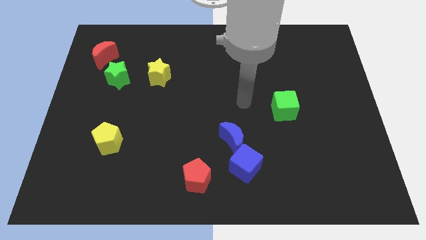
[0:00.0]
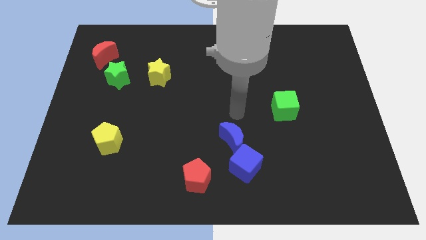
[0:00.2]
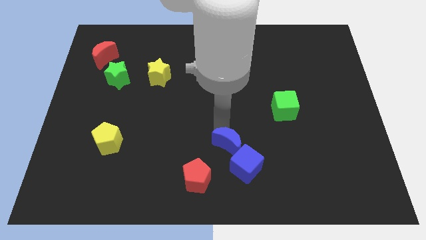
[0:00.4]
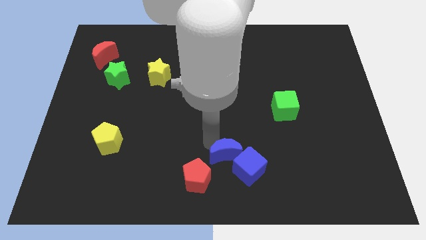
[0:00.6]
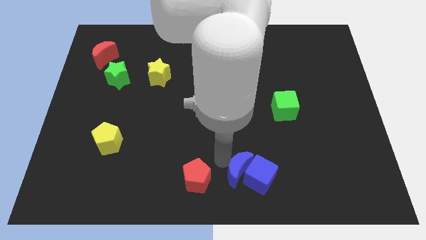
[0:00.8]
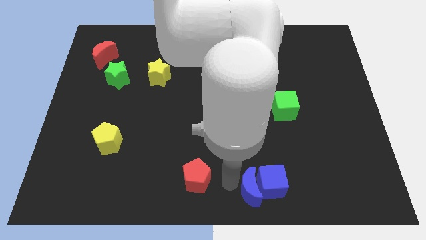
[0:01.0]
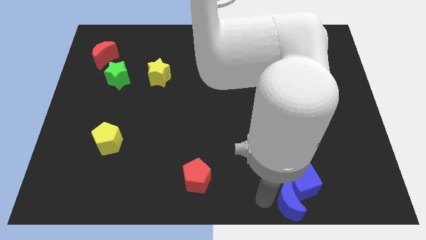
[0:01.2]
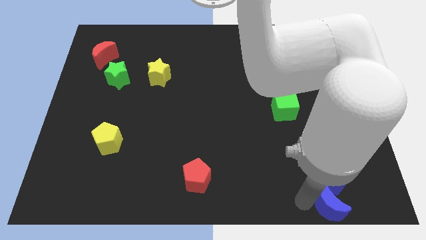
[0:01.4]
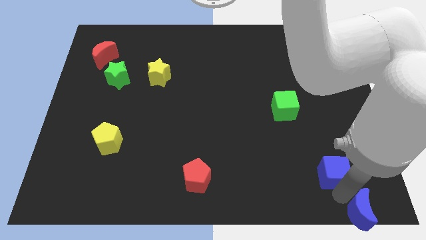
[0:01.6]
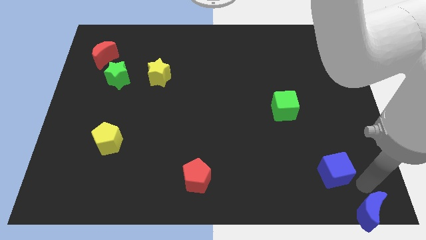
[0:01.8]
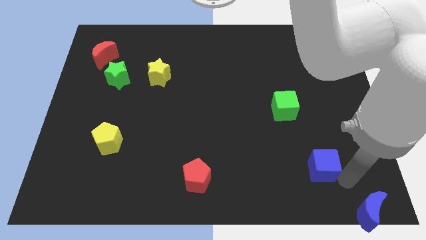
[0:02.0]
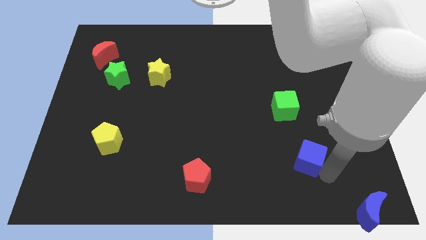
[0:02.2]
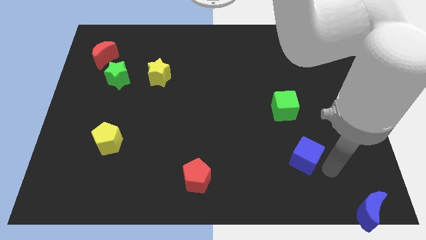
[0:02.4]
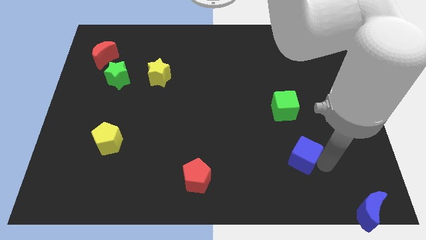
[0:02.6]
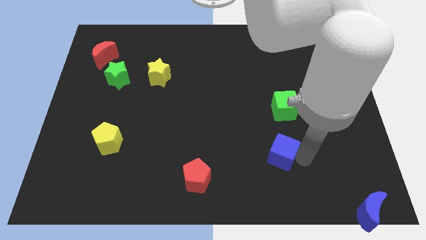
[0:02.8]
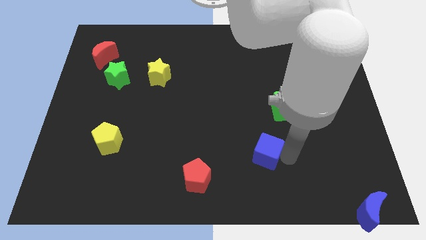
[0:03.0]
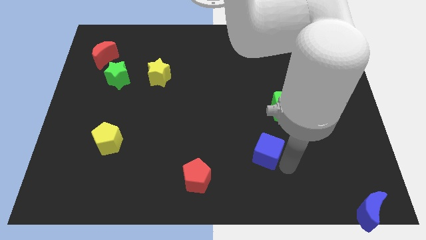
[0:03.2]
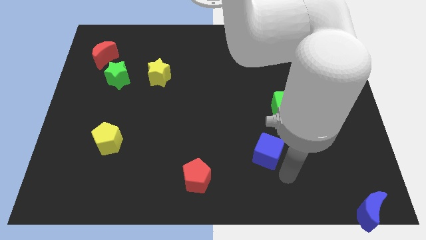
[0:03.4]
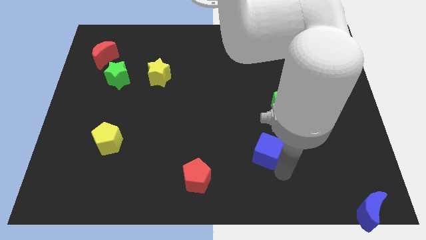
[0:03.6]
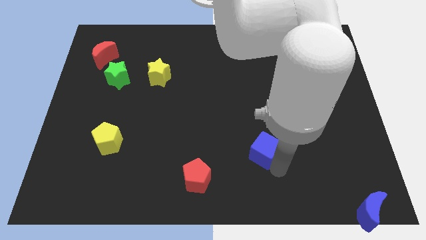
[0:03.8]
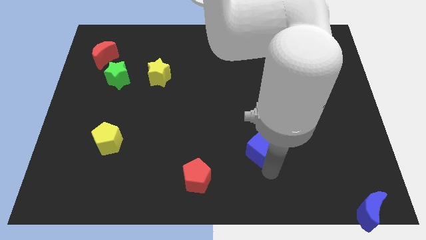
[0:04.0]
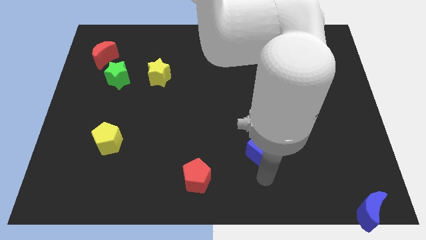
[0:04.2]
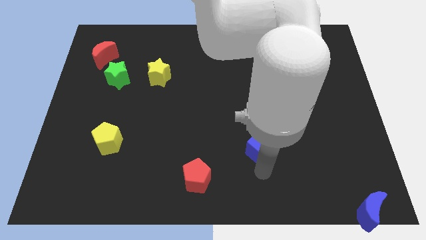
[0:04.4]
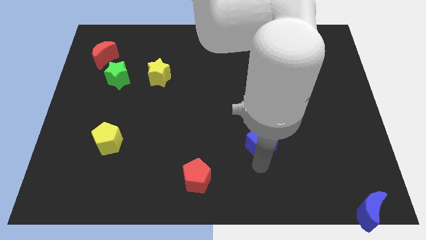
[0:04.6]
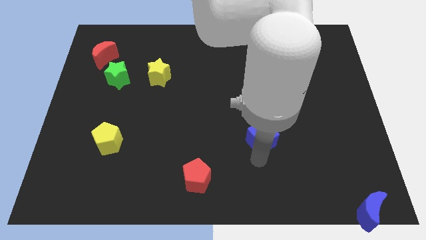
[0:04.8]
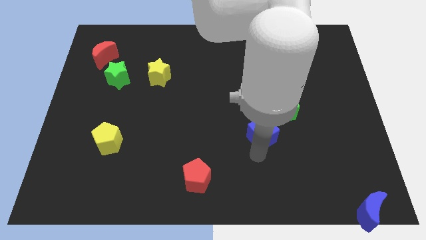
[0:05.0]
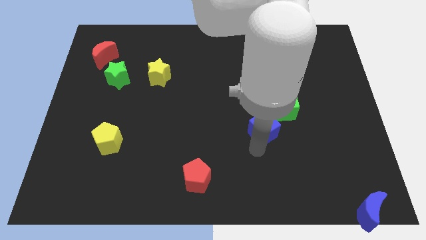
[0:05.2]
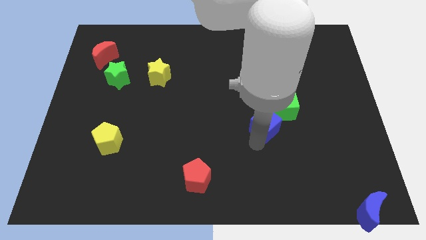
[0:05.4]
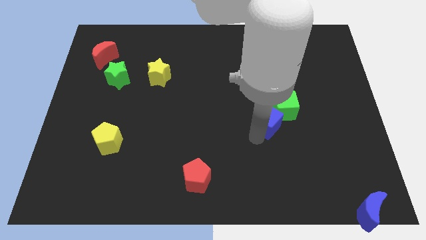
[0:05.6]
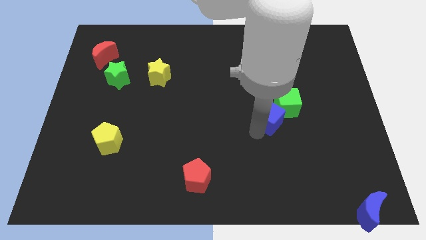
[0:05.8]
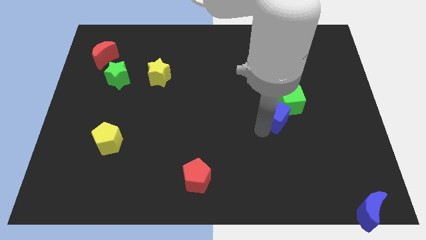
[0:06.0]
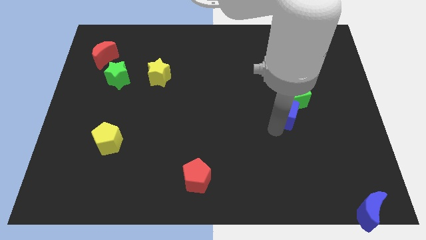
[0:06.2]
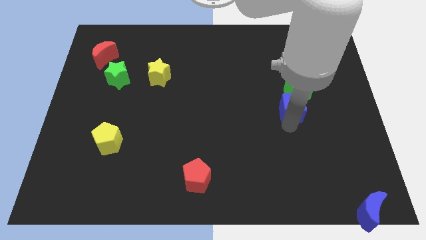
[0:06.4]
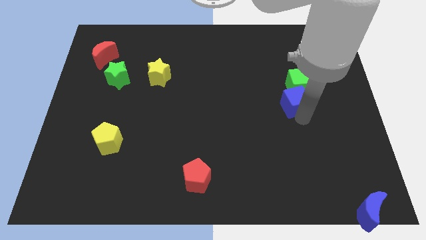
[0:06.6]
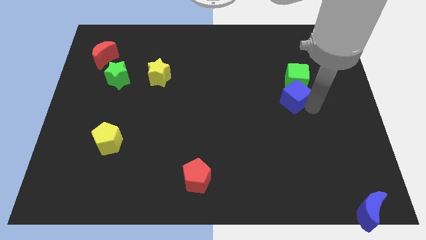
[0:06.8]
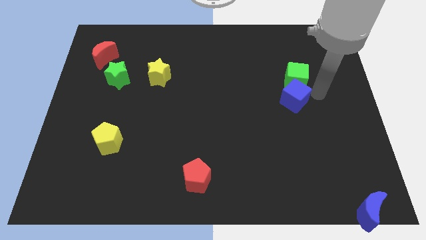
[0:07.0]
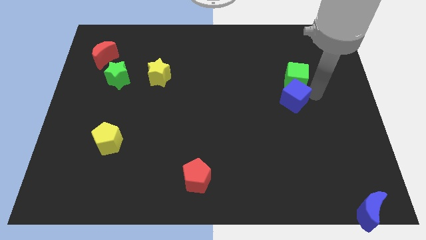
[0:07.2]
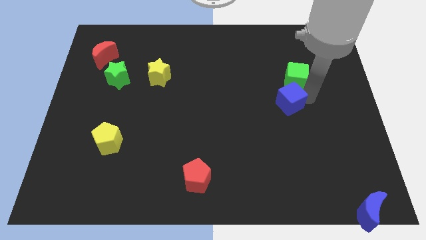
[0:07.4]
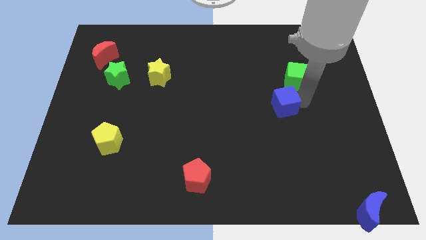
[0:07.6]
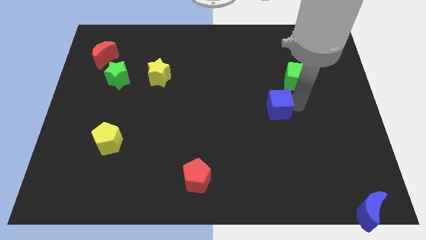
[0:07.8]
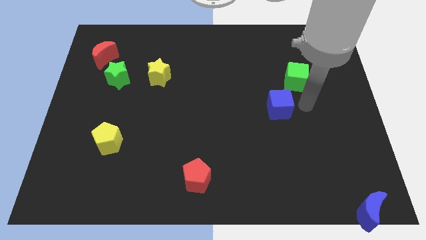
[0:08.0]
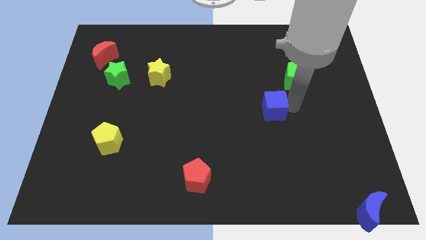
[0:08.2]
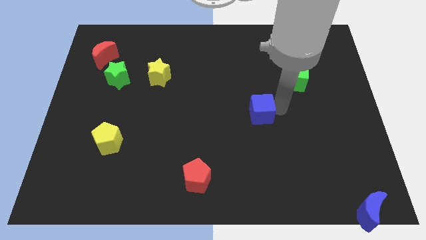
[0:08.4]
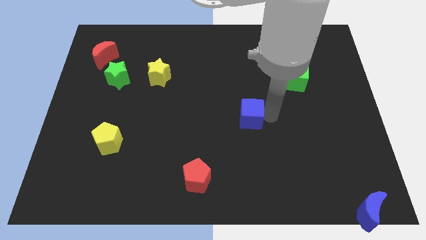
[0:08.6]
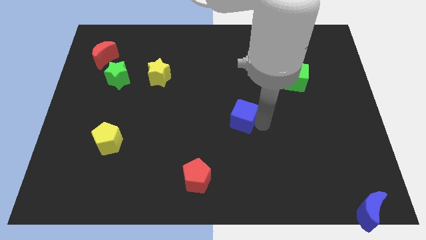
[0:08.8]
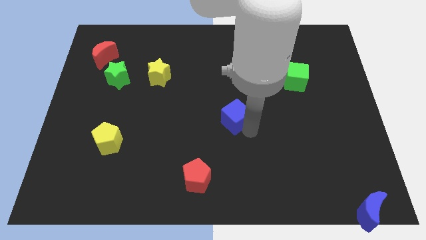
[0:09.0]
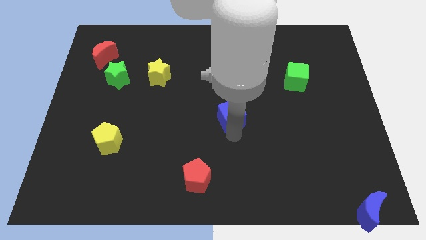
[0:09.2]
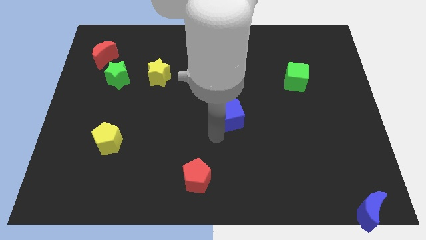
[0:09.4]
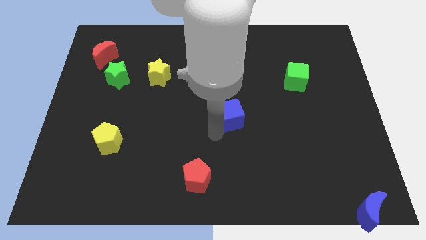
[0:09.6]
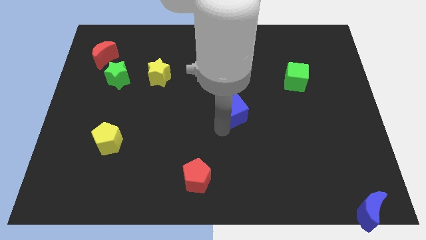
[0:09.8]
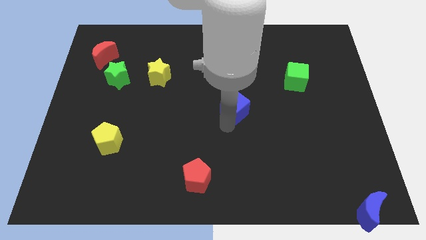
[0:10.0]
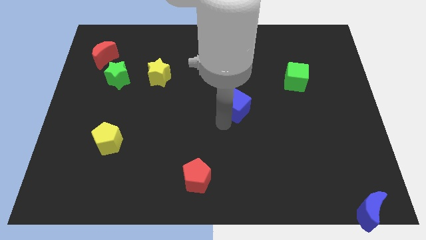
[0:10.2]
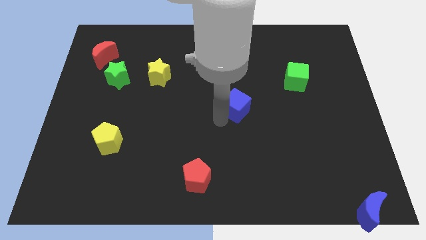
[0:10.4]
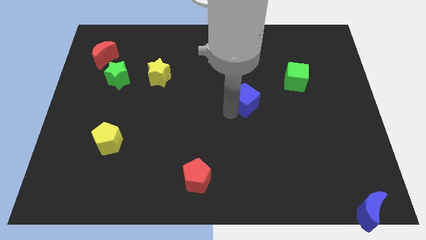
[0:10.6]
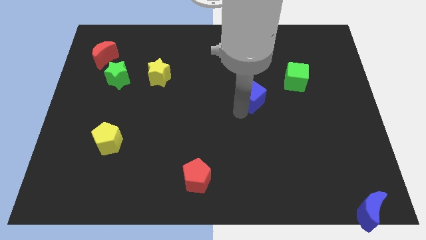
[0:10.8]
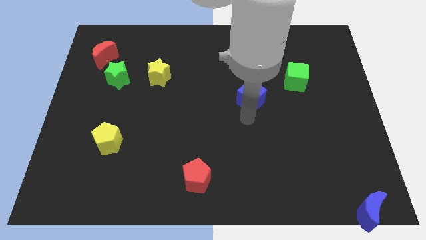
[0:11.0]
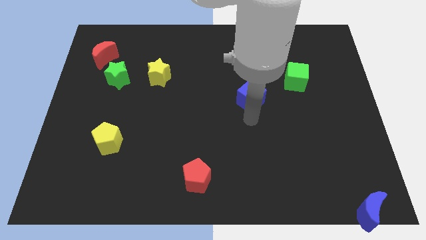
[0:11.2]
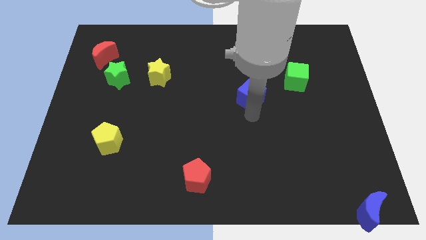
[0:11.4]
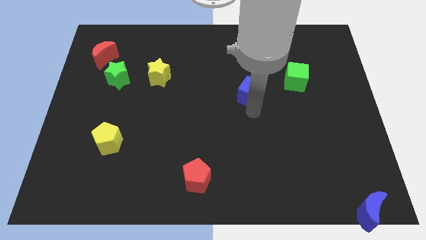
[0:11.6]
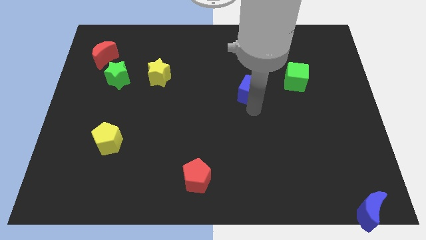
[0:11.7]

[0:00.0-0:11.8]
push the blue cube upwards

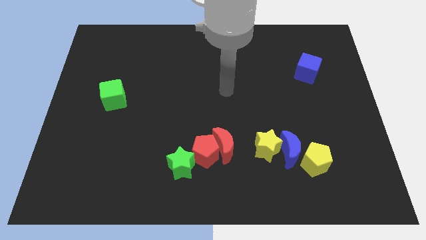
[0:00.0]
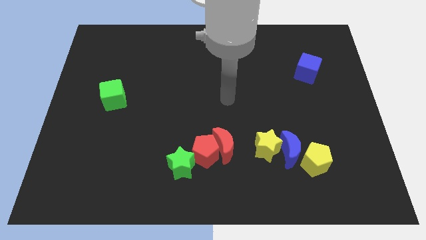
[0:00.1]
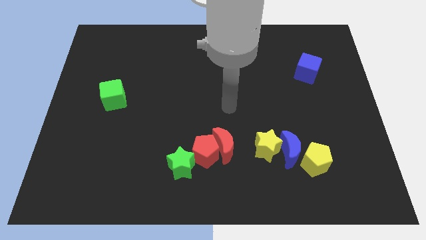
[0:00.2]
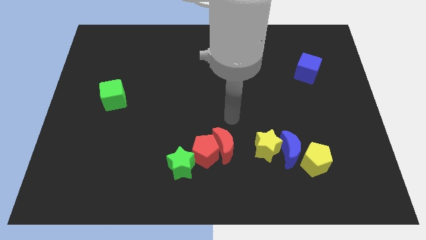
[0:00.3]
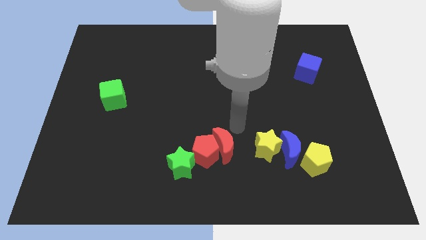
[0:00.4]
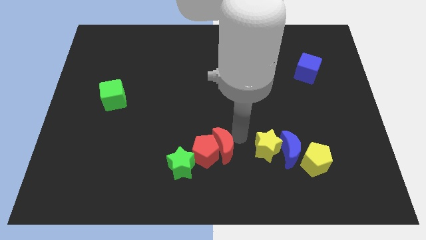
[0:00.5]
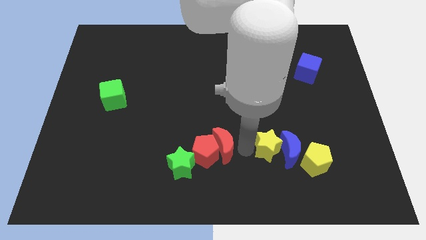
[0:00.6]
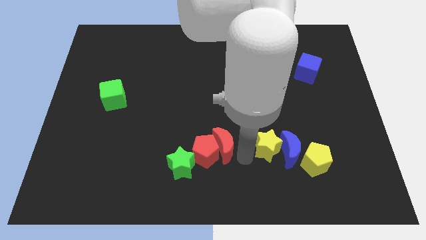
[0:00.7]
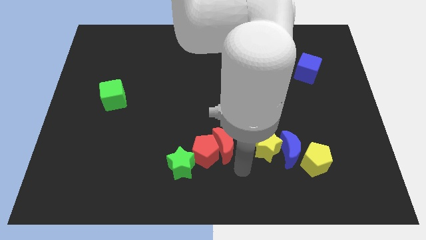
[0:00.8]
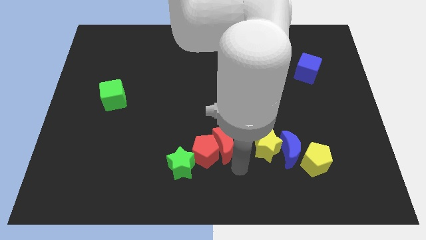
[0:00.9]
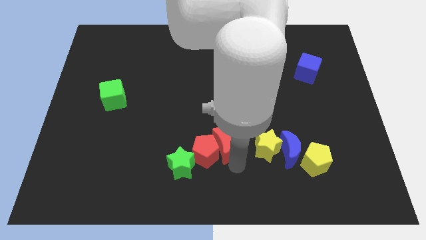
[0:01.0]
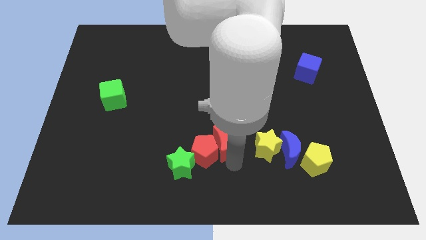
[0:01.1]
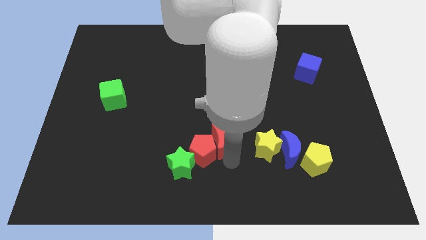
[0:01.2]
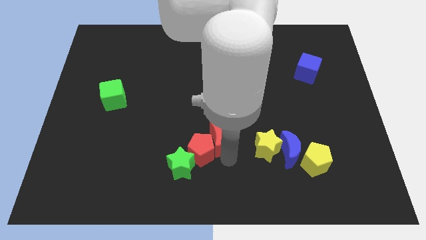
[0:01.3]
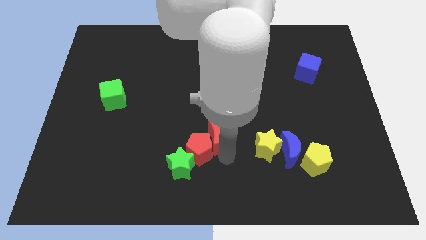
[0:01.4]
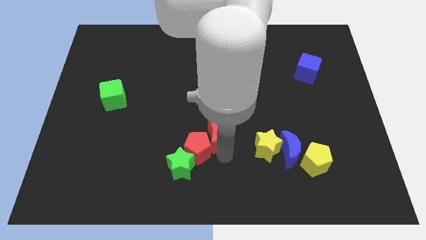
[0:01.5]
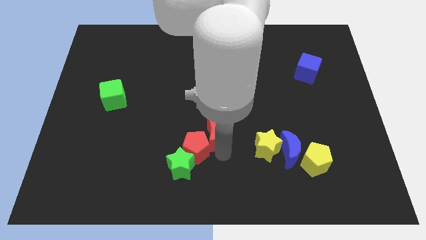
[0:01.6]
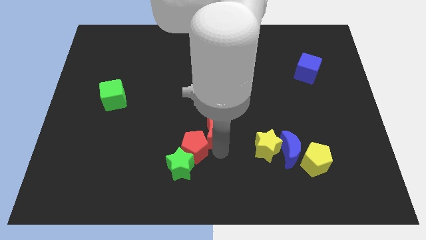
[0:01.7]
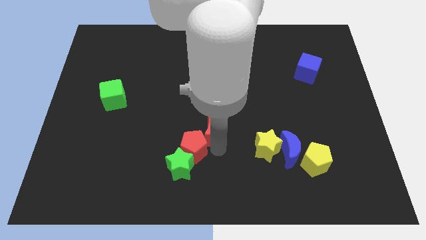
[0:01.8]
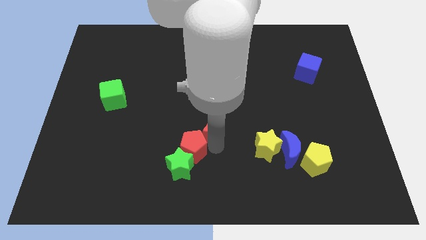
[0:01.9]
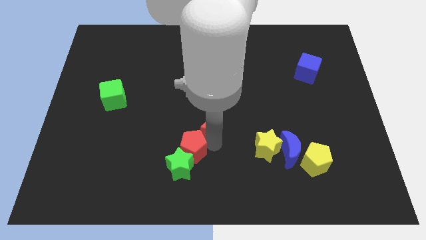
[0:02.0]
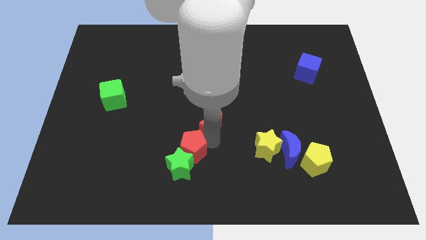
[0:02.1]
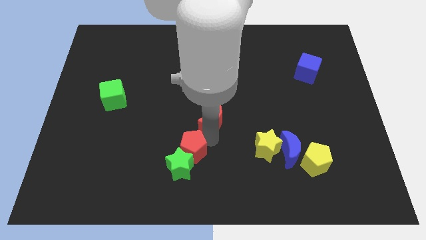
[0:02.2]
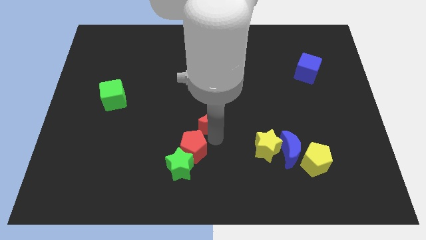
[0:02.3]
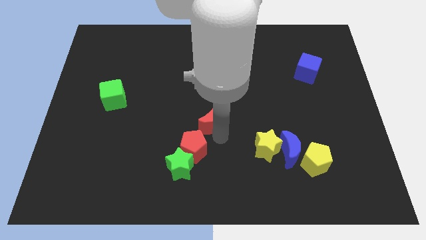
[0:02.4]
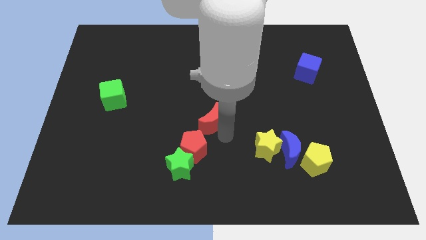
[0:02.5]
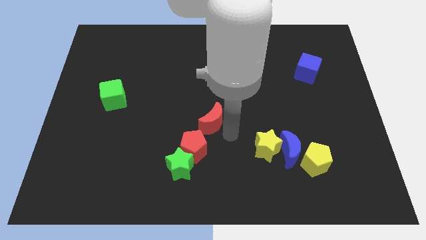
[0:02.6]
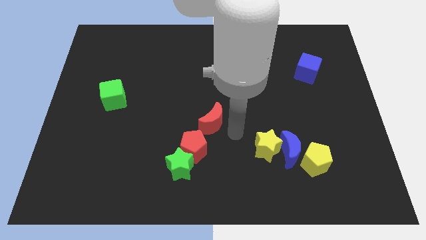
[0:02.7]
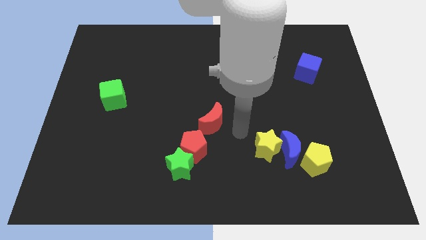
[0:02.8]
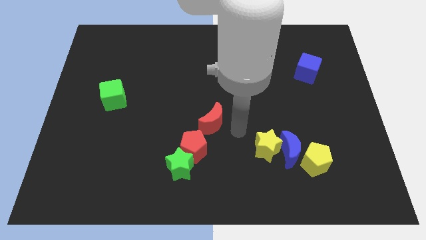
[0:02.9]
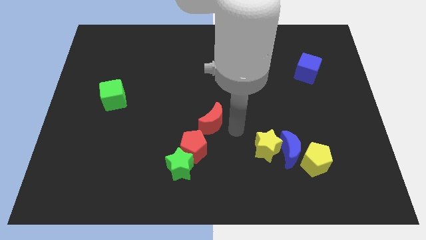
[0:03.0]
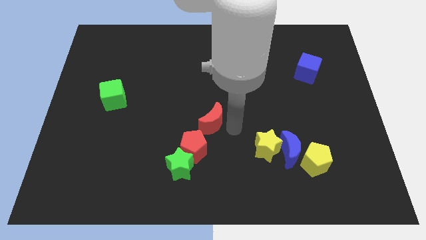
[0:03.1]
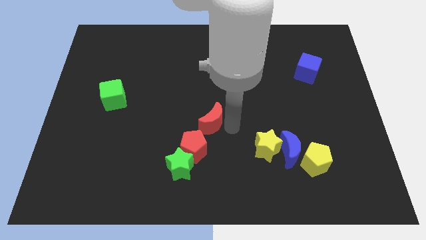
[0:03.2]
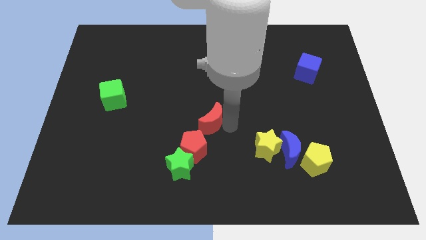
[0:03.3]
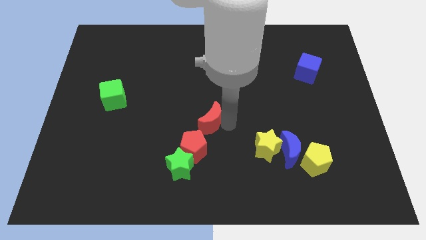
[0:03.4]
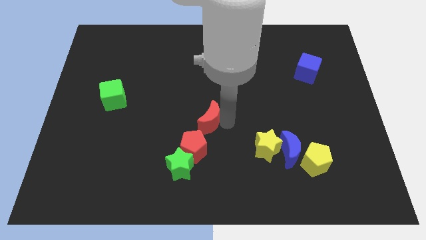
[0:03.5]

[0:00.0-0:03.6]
move the red moon up and left diagonally a little bit
